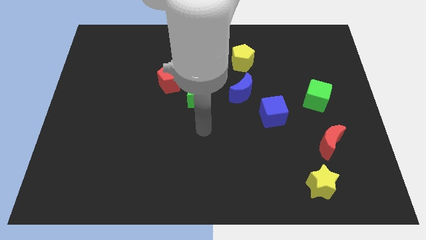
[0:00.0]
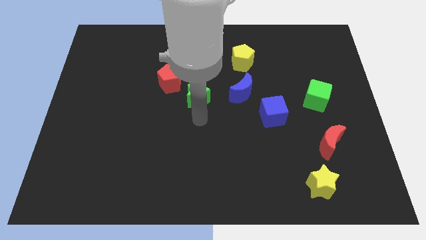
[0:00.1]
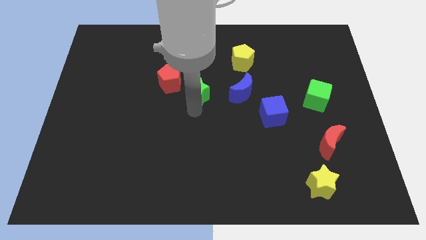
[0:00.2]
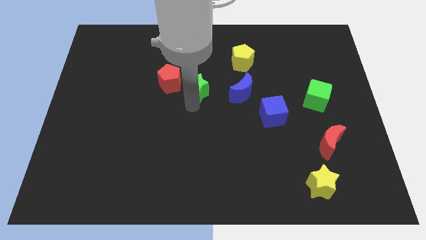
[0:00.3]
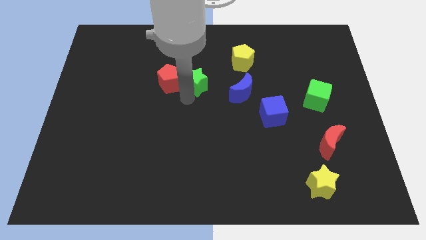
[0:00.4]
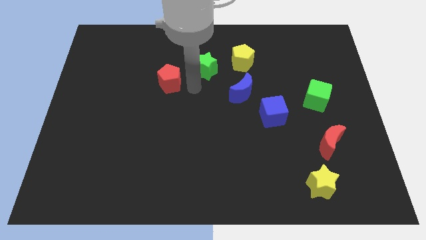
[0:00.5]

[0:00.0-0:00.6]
move the red pentagon away from the green star

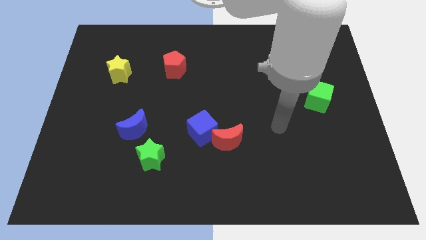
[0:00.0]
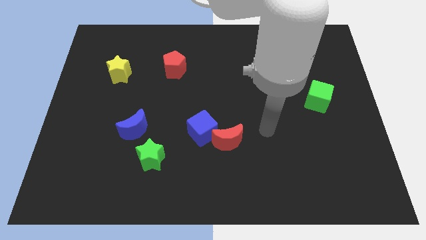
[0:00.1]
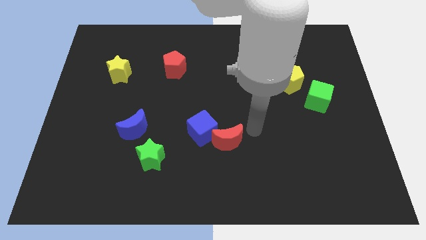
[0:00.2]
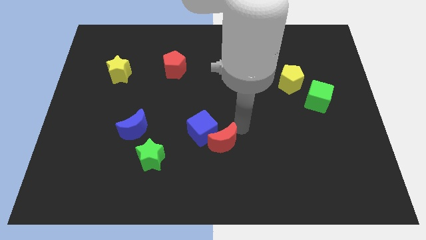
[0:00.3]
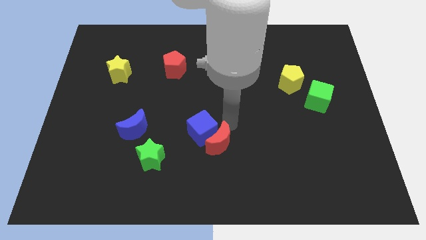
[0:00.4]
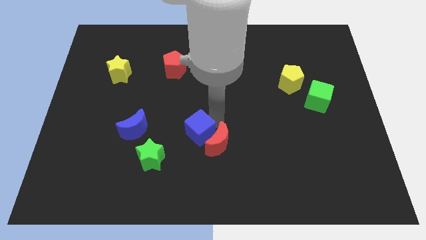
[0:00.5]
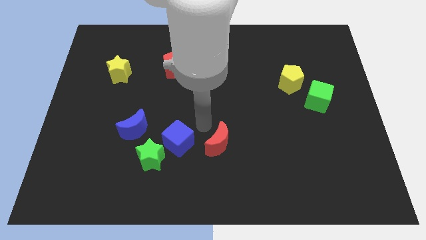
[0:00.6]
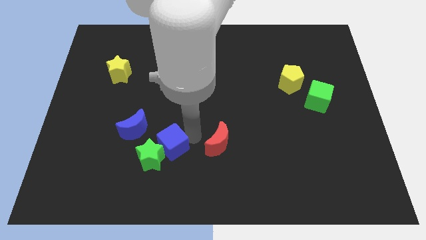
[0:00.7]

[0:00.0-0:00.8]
separate the red moon from the blue cube

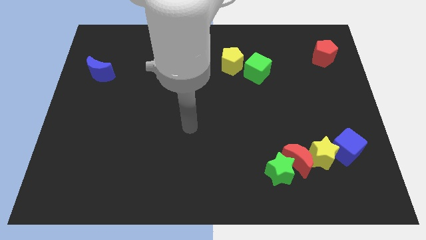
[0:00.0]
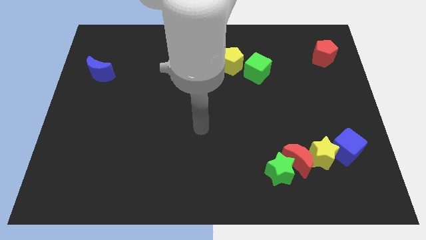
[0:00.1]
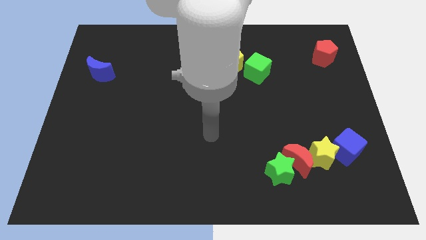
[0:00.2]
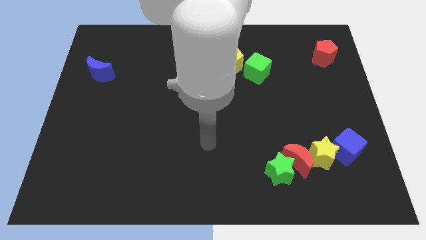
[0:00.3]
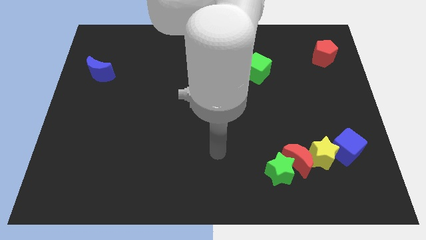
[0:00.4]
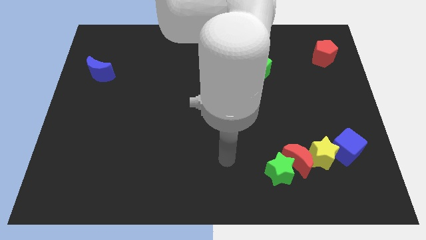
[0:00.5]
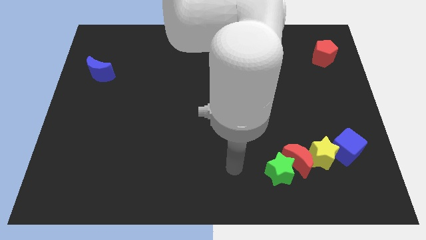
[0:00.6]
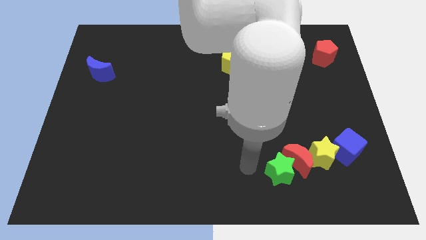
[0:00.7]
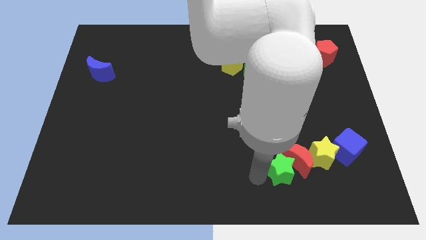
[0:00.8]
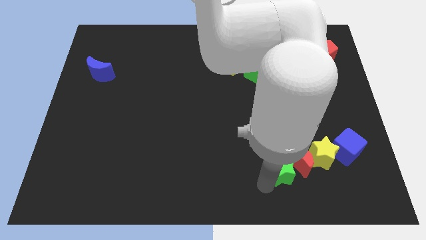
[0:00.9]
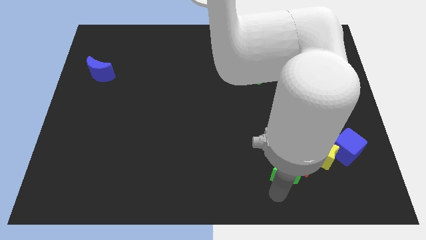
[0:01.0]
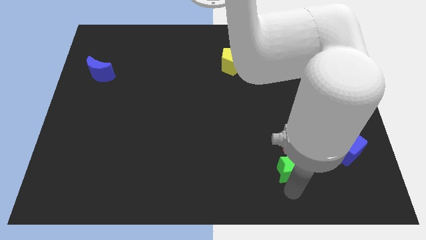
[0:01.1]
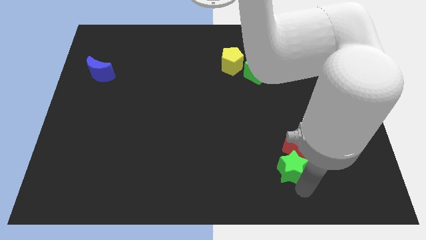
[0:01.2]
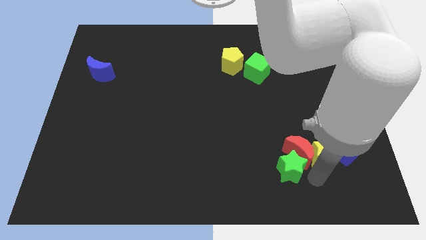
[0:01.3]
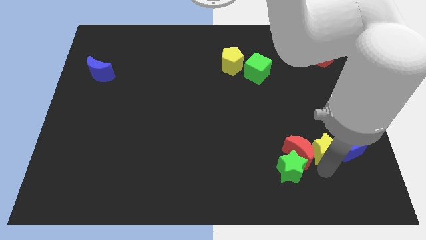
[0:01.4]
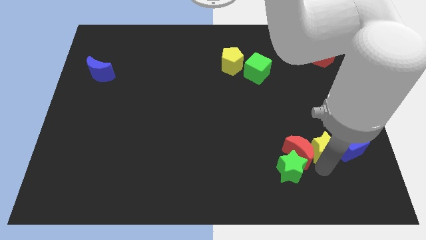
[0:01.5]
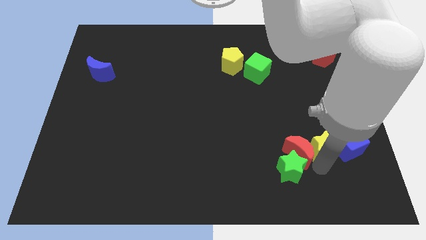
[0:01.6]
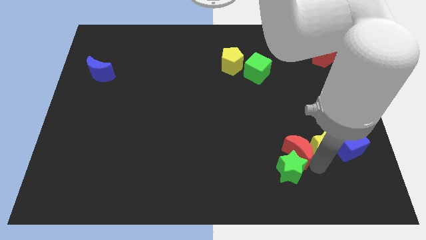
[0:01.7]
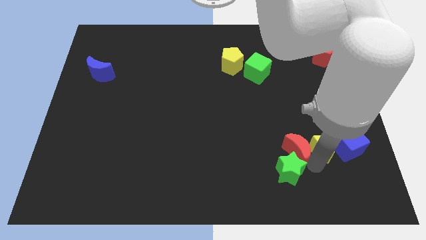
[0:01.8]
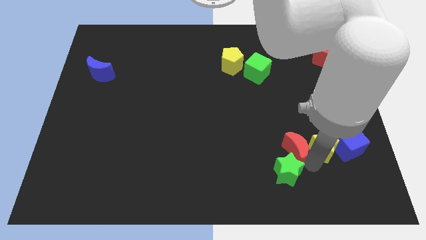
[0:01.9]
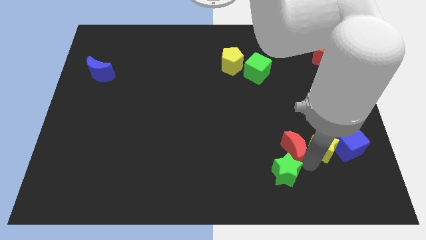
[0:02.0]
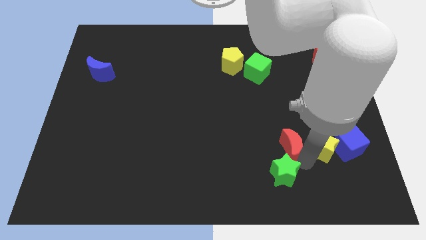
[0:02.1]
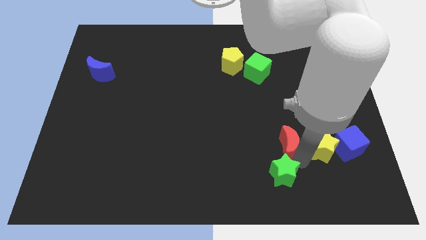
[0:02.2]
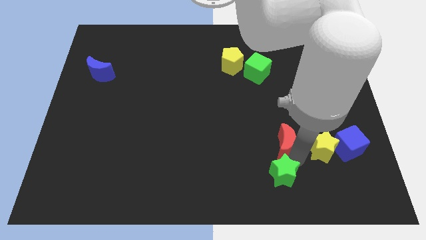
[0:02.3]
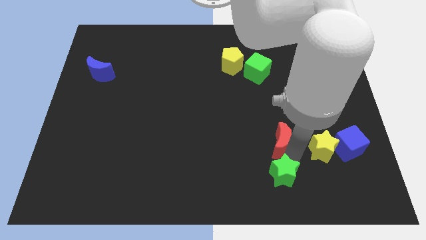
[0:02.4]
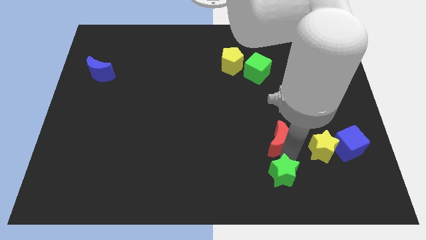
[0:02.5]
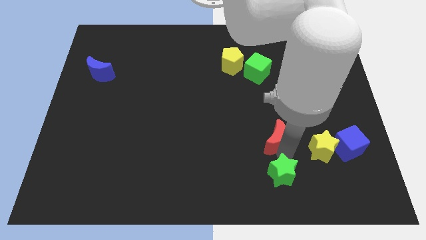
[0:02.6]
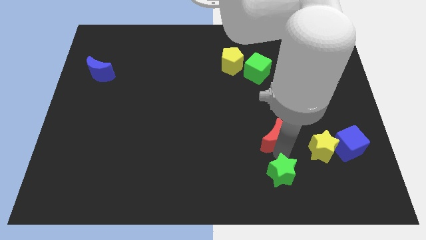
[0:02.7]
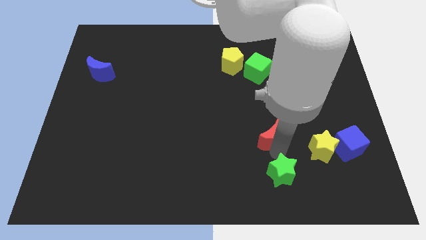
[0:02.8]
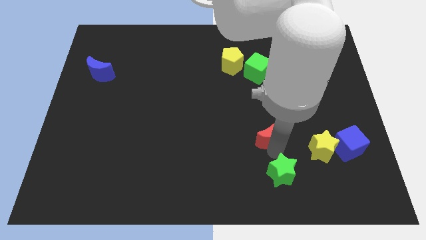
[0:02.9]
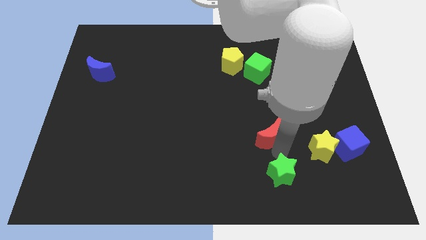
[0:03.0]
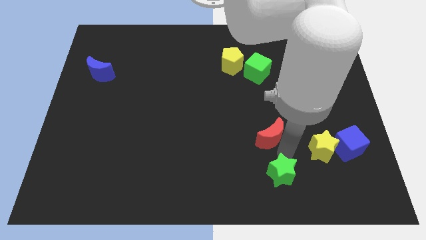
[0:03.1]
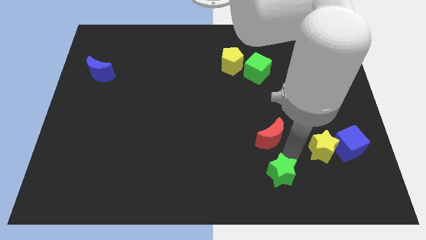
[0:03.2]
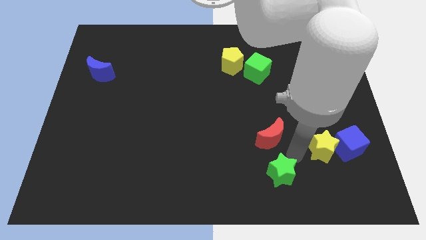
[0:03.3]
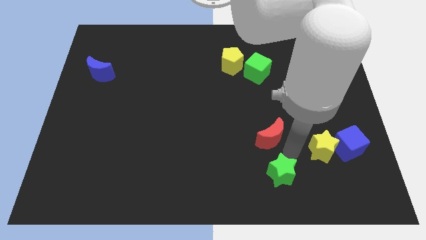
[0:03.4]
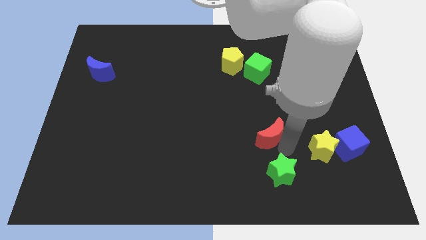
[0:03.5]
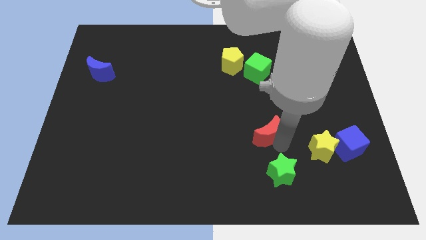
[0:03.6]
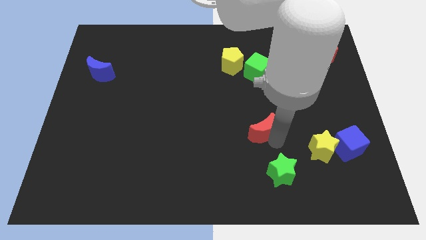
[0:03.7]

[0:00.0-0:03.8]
move the red moon away from the green star and yellow star

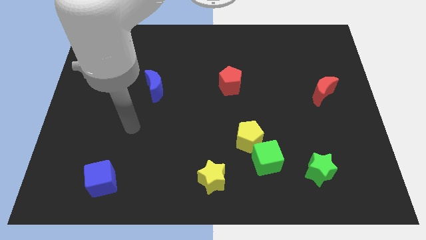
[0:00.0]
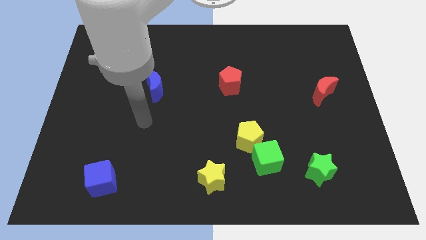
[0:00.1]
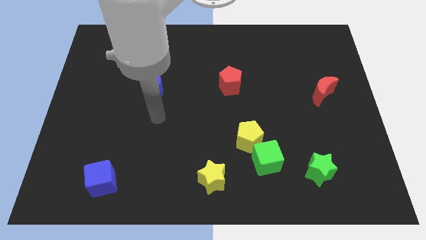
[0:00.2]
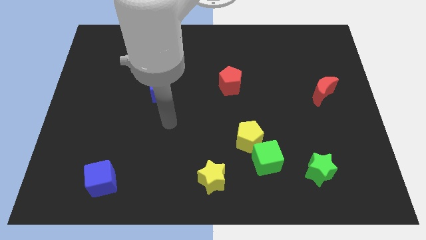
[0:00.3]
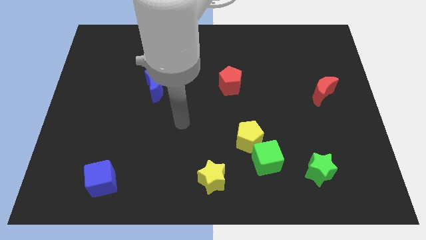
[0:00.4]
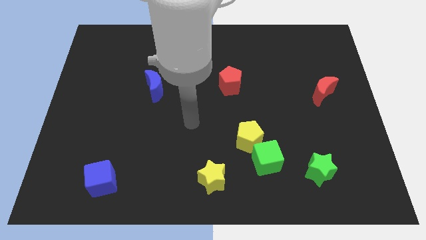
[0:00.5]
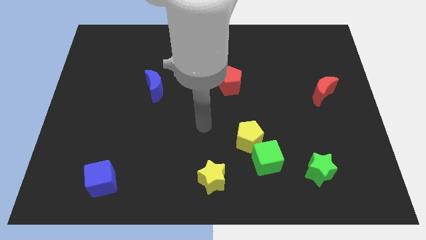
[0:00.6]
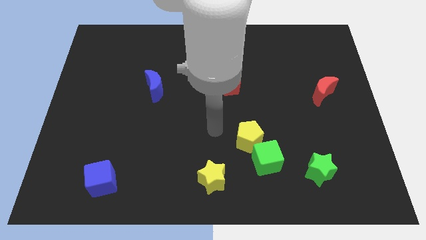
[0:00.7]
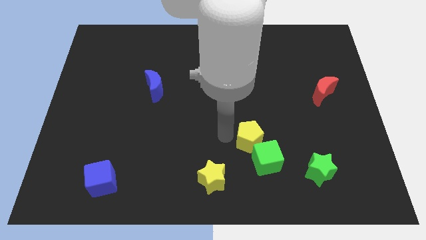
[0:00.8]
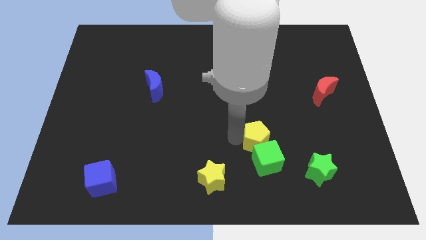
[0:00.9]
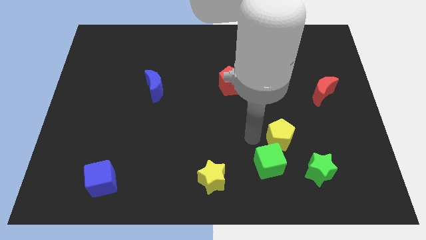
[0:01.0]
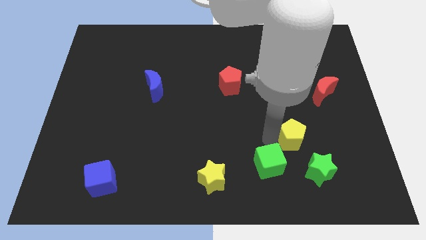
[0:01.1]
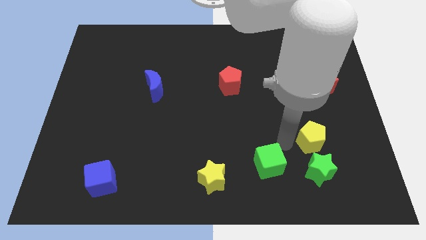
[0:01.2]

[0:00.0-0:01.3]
pull the green cube apart from the yellow pentagon

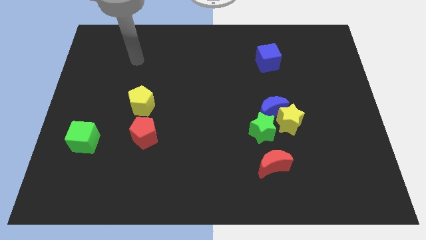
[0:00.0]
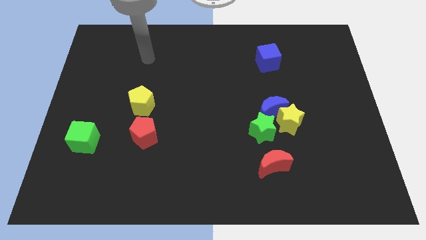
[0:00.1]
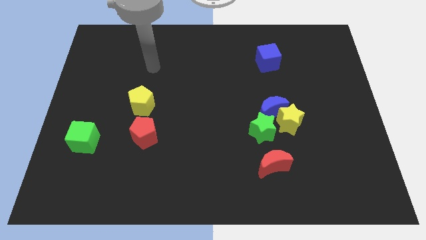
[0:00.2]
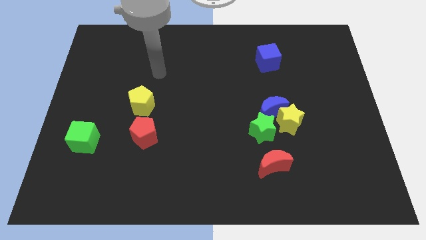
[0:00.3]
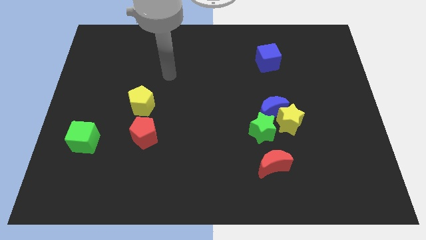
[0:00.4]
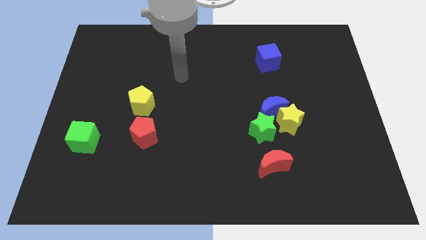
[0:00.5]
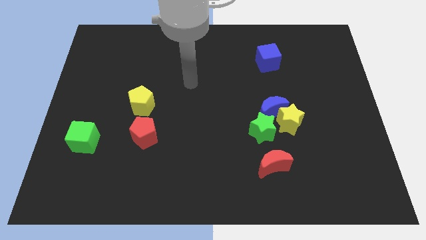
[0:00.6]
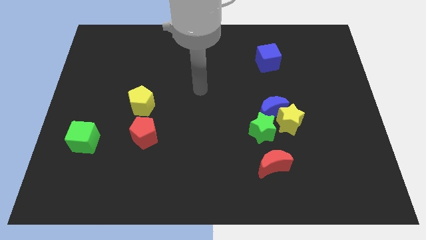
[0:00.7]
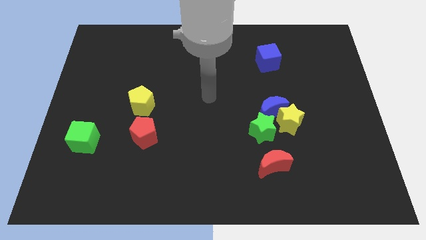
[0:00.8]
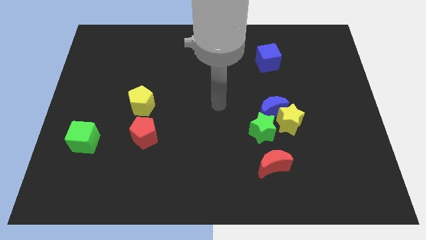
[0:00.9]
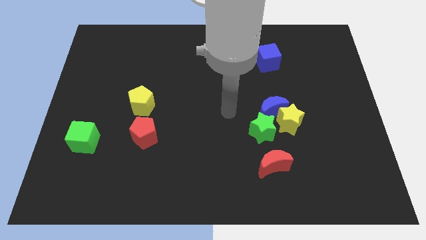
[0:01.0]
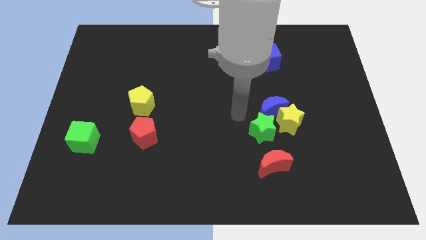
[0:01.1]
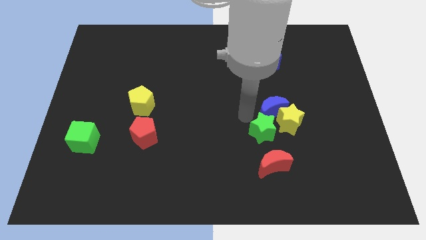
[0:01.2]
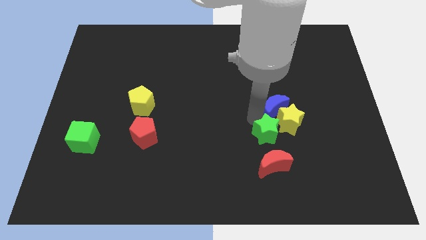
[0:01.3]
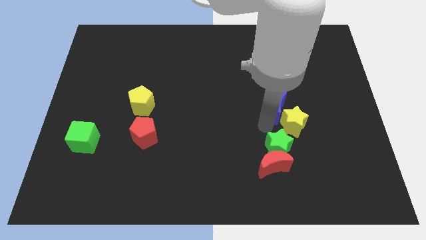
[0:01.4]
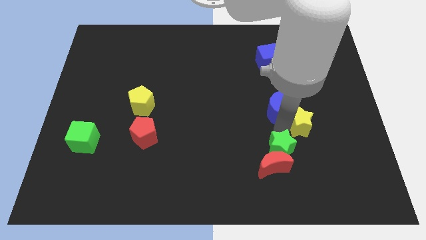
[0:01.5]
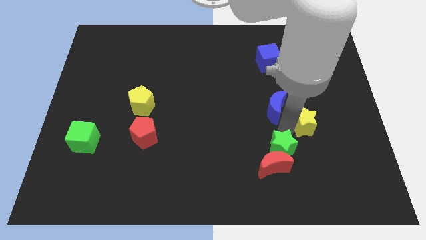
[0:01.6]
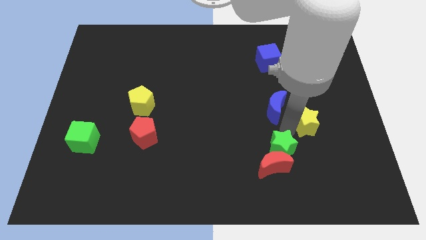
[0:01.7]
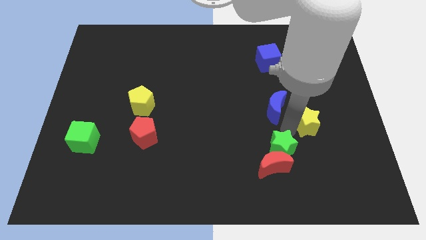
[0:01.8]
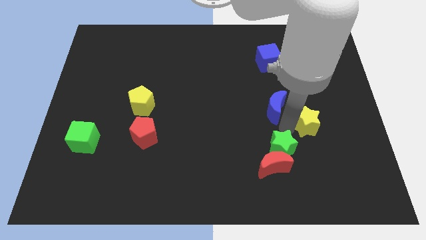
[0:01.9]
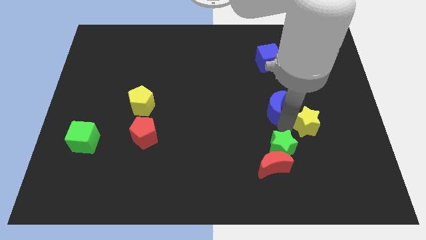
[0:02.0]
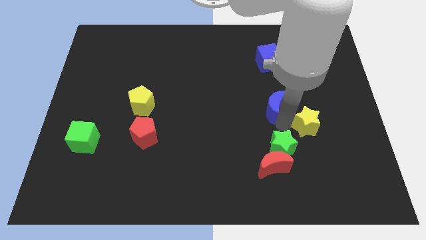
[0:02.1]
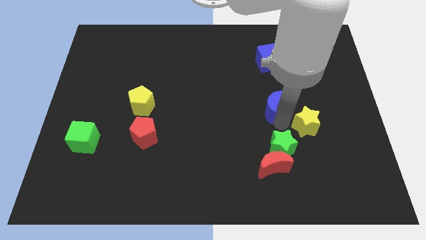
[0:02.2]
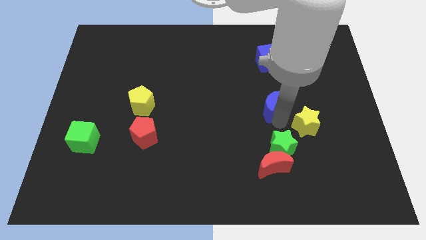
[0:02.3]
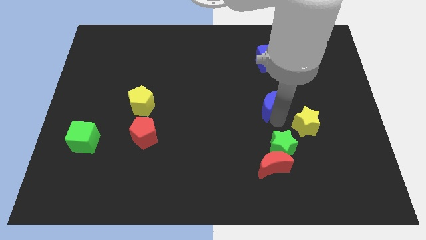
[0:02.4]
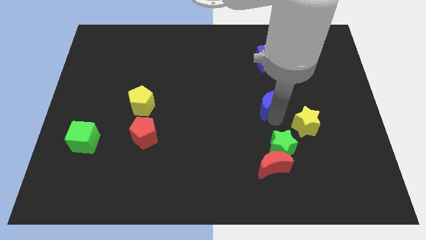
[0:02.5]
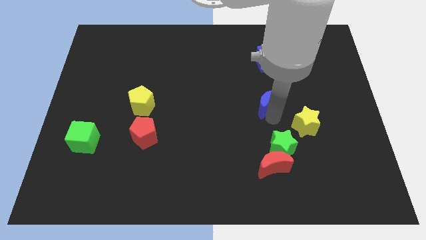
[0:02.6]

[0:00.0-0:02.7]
separate the blue moon from the yellow star and green star
